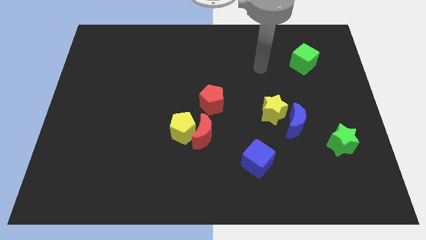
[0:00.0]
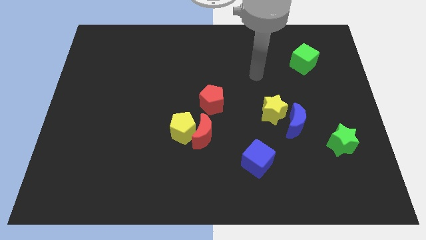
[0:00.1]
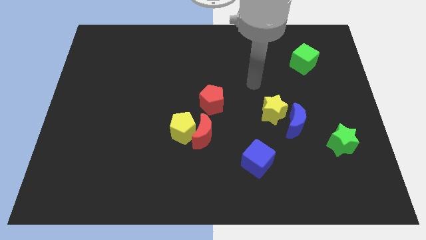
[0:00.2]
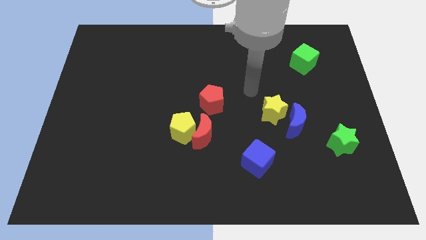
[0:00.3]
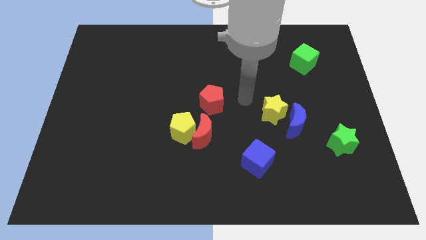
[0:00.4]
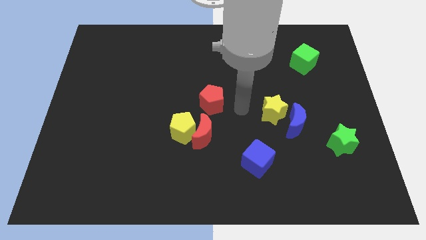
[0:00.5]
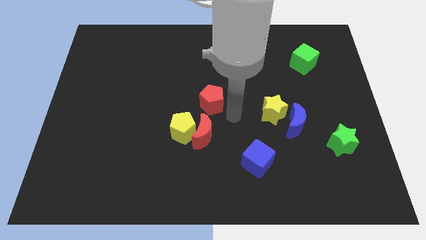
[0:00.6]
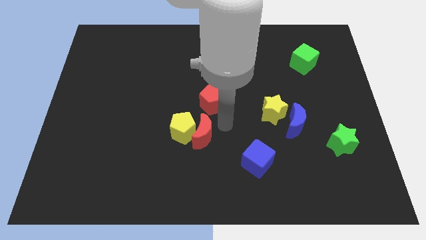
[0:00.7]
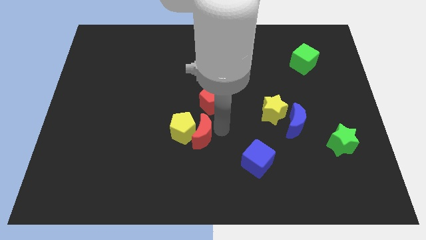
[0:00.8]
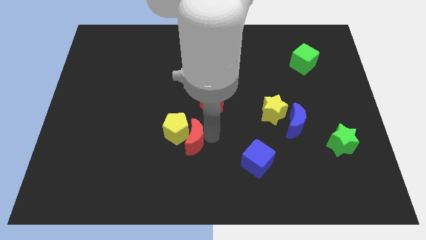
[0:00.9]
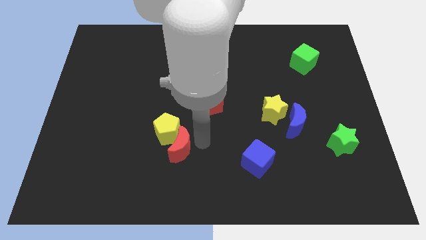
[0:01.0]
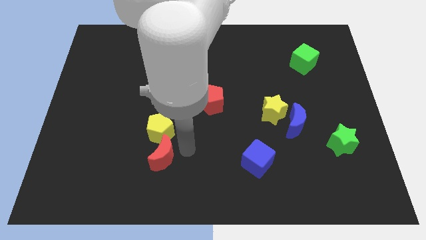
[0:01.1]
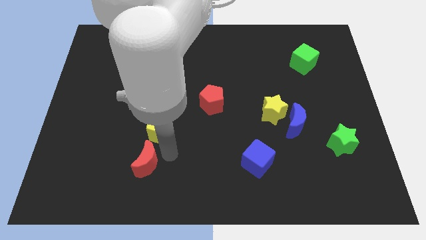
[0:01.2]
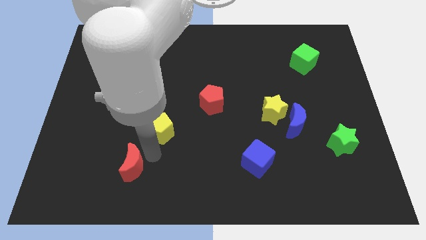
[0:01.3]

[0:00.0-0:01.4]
pull the yellow pentagon apart from the red moon

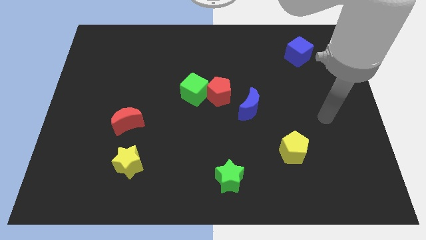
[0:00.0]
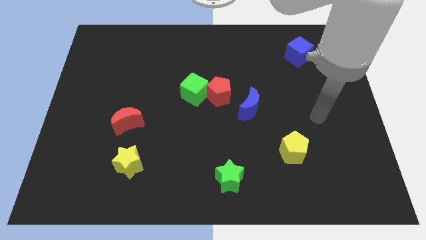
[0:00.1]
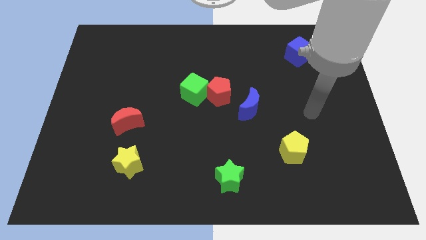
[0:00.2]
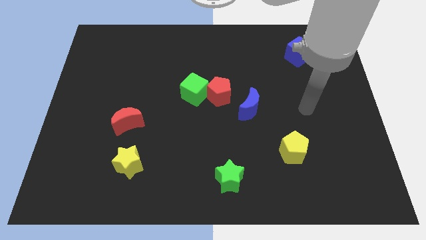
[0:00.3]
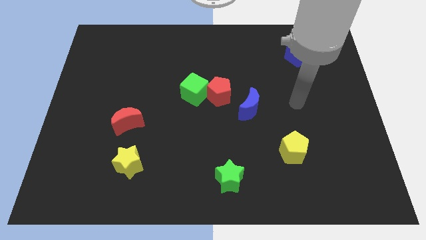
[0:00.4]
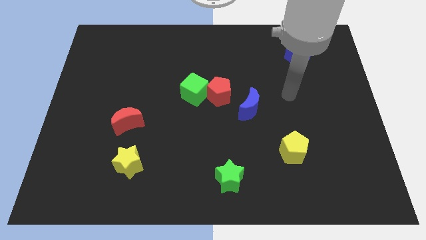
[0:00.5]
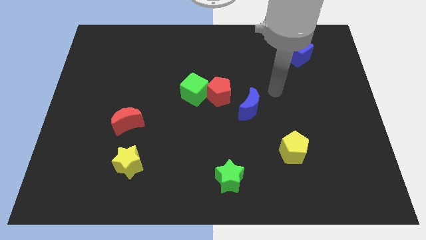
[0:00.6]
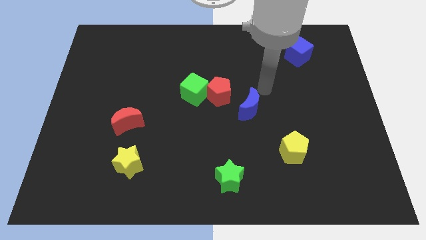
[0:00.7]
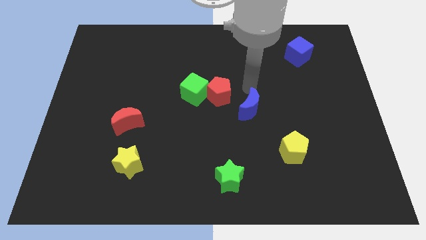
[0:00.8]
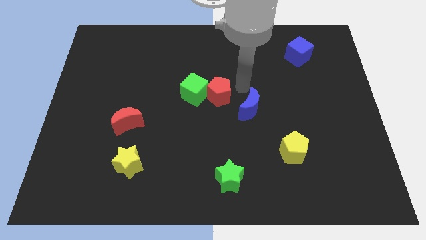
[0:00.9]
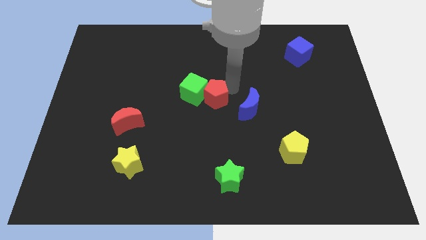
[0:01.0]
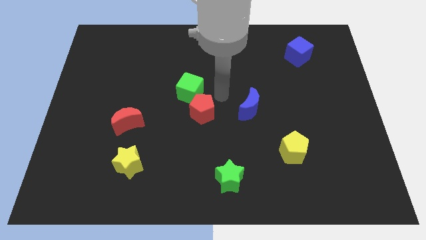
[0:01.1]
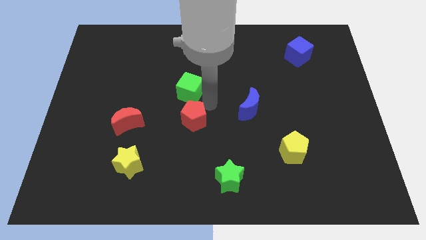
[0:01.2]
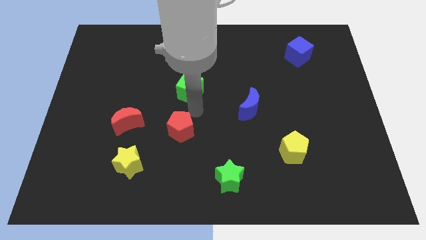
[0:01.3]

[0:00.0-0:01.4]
move the green cube away from the red pentagon

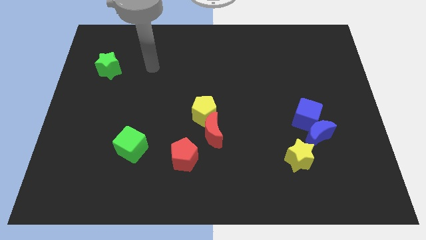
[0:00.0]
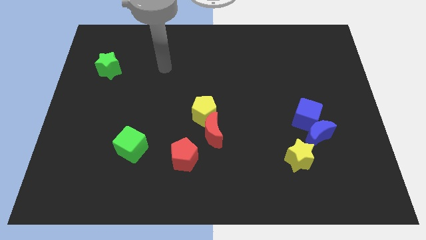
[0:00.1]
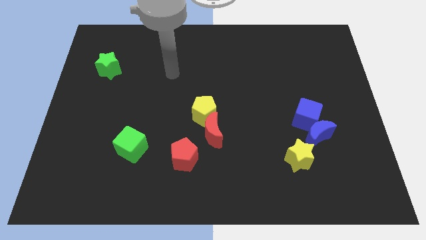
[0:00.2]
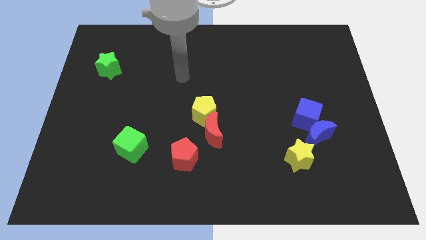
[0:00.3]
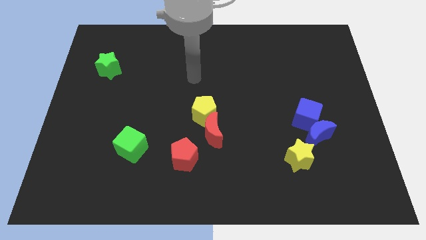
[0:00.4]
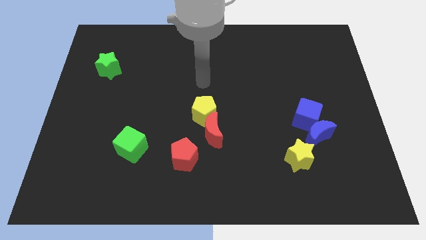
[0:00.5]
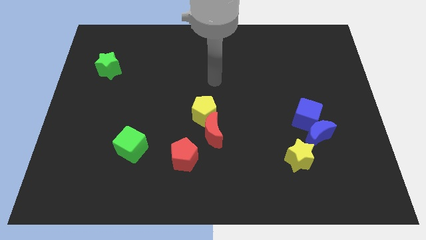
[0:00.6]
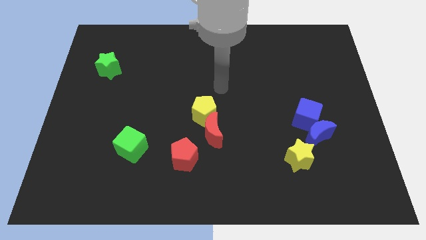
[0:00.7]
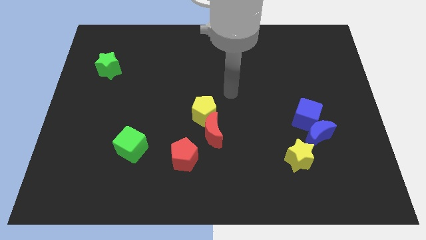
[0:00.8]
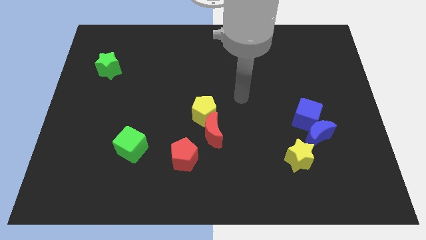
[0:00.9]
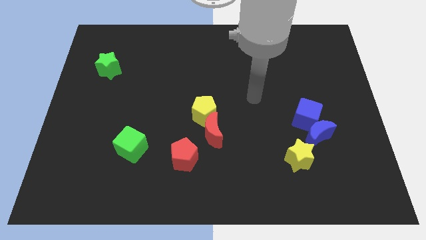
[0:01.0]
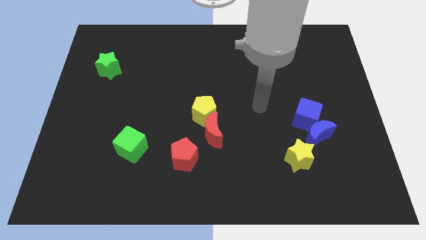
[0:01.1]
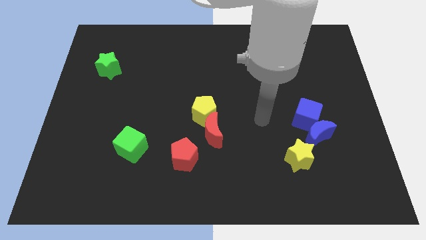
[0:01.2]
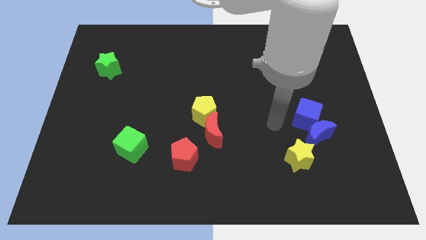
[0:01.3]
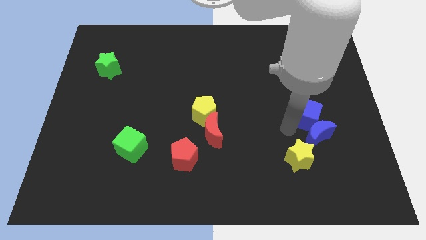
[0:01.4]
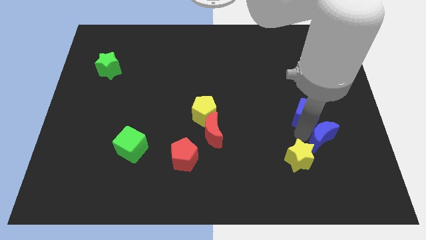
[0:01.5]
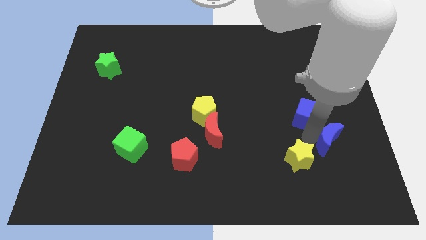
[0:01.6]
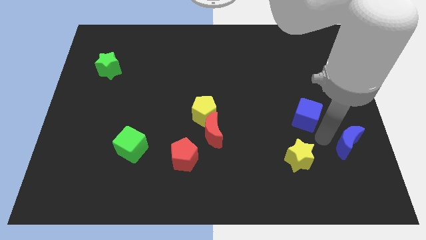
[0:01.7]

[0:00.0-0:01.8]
pull the blue cube apart from the blue moon

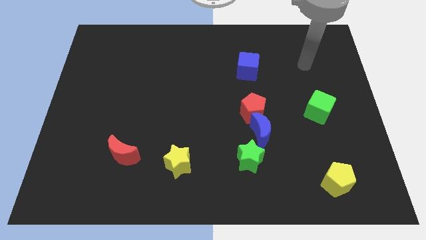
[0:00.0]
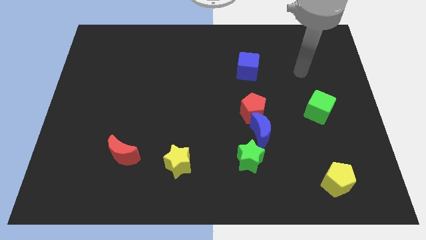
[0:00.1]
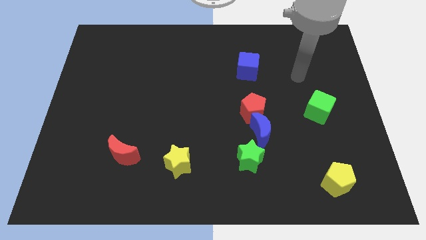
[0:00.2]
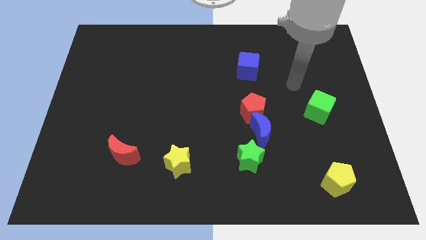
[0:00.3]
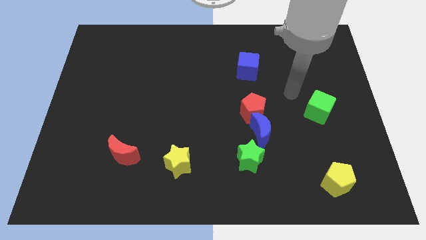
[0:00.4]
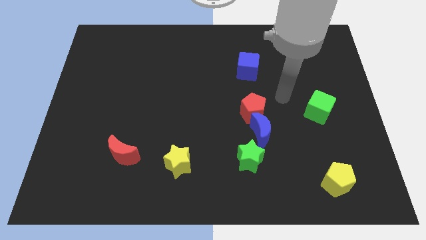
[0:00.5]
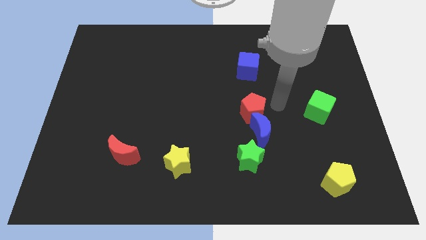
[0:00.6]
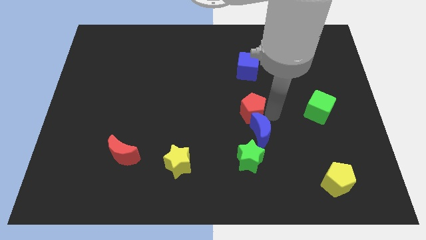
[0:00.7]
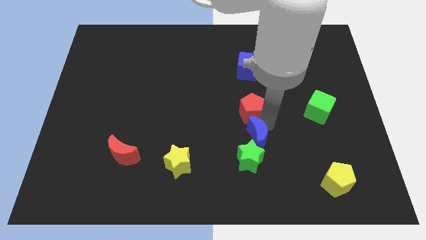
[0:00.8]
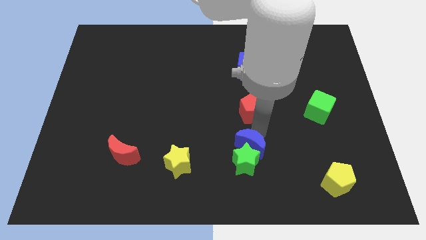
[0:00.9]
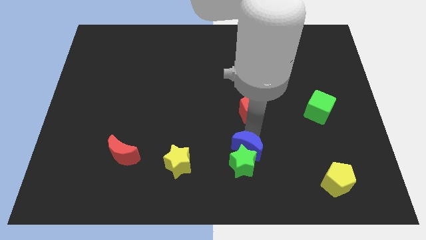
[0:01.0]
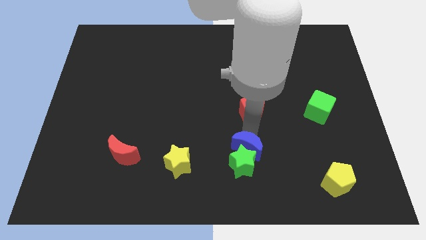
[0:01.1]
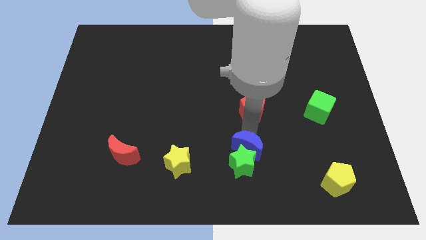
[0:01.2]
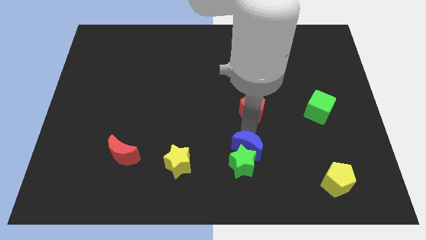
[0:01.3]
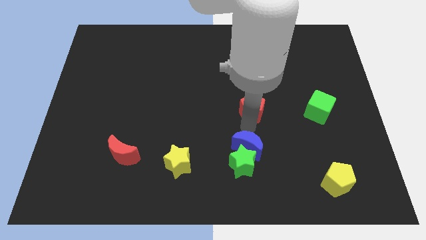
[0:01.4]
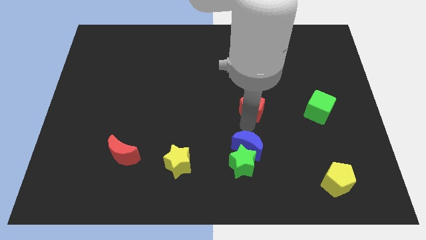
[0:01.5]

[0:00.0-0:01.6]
pull the red pentagon apart from the blue moon

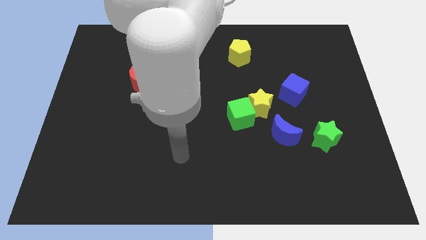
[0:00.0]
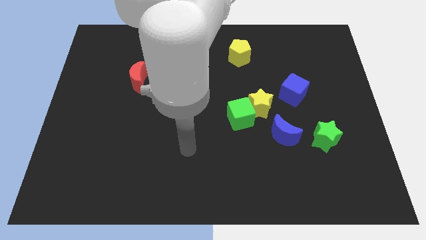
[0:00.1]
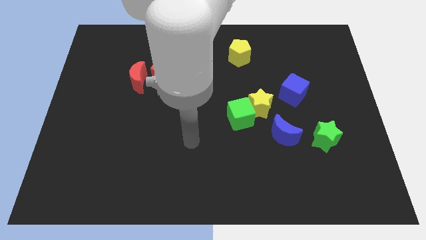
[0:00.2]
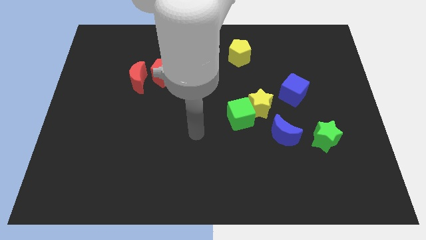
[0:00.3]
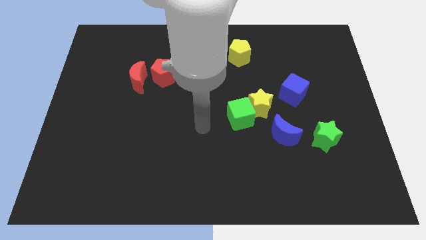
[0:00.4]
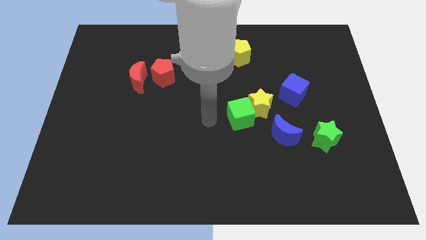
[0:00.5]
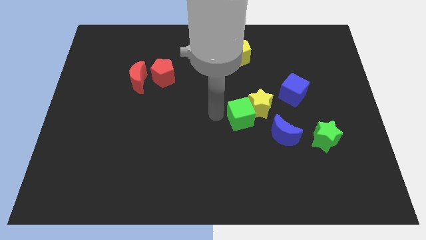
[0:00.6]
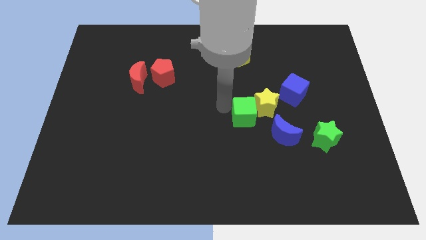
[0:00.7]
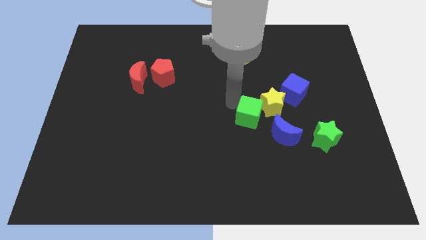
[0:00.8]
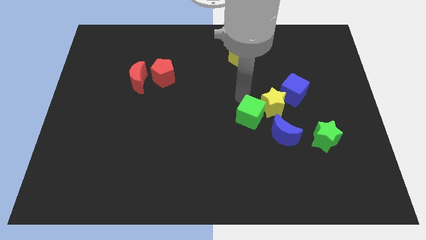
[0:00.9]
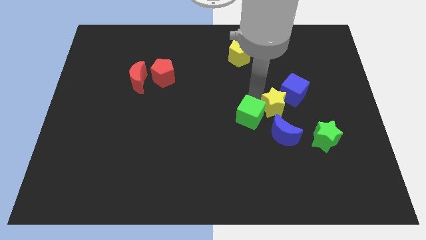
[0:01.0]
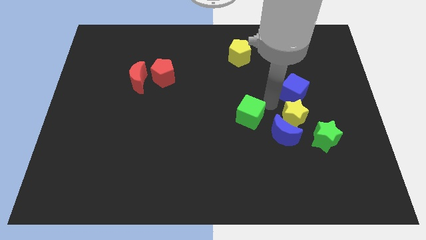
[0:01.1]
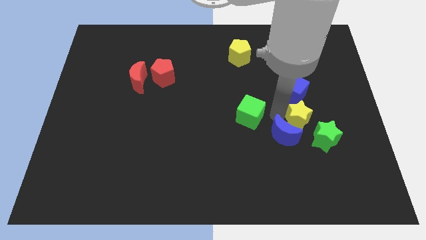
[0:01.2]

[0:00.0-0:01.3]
move the green cube away from the yellow star

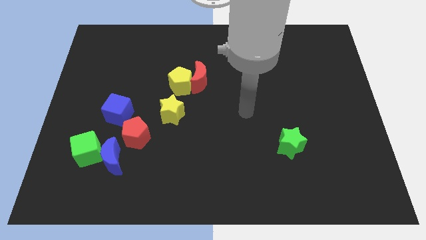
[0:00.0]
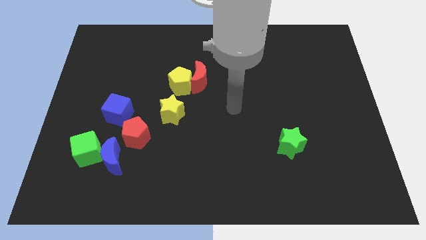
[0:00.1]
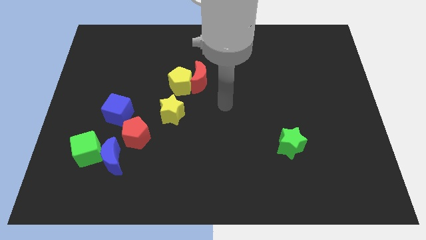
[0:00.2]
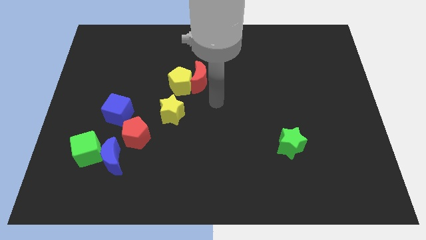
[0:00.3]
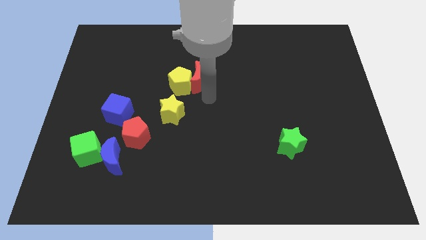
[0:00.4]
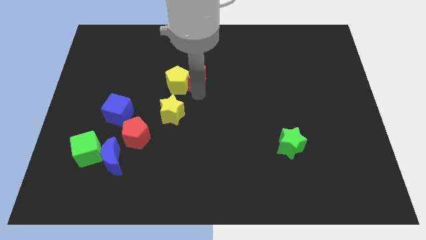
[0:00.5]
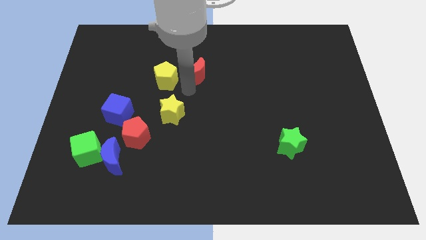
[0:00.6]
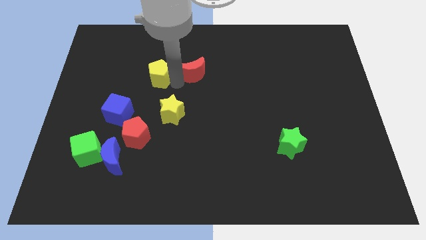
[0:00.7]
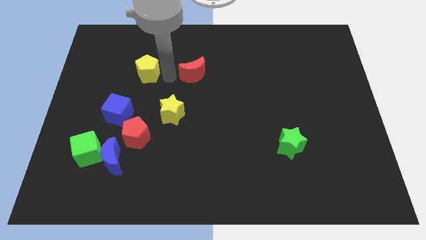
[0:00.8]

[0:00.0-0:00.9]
pull the red moon apart from the yellow pentagon

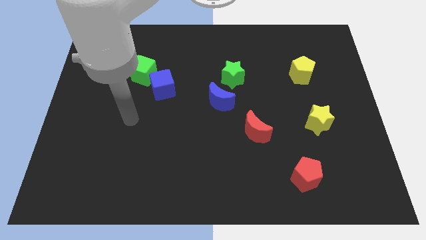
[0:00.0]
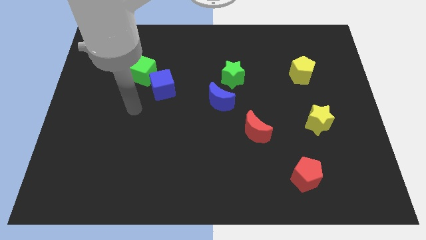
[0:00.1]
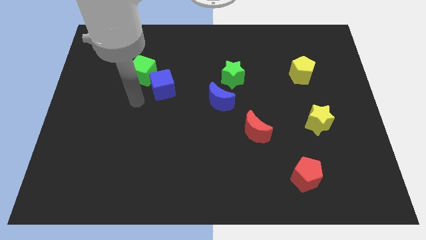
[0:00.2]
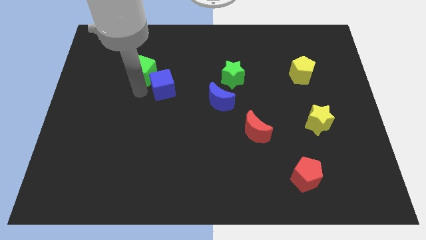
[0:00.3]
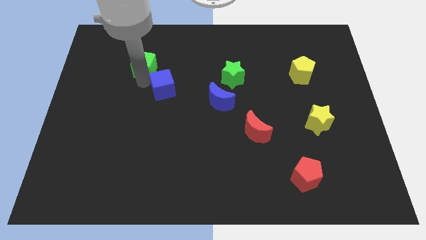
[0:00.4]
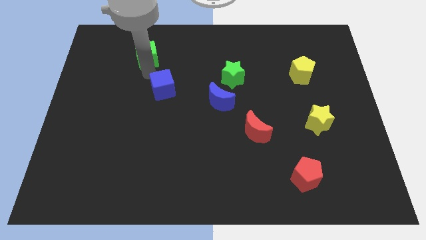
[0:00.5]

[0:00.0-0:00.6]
move the blue cube away from the green cube

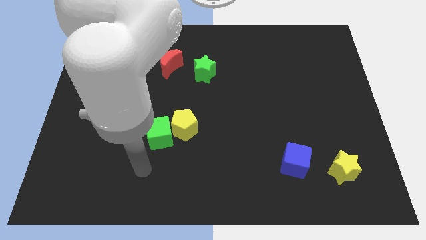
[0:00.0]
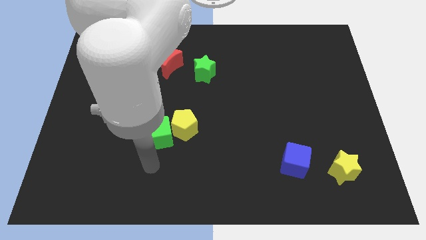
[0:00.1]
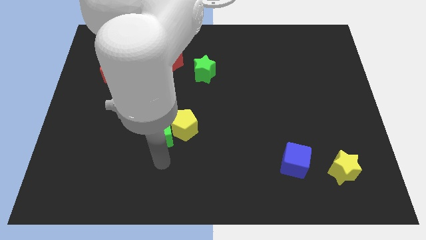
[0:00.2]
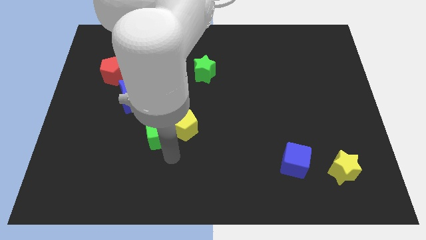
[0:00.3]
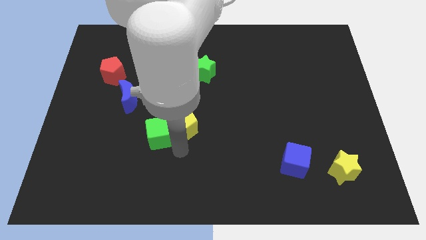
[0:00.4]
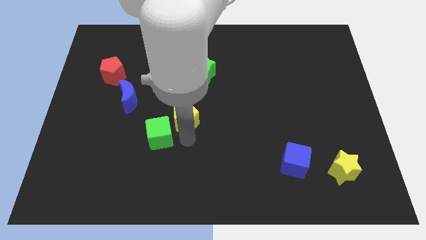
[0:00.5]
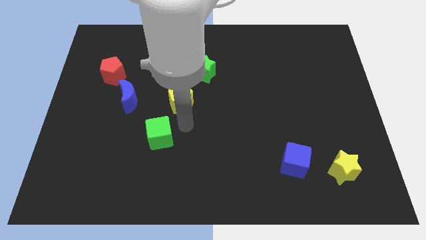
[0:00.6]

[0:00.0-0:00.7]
pull the green cube apart from the yellow pentagon
